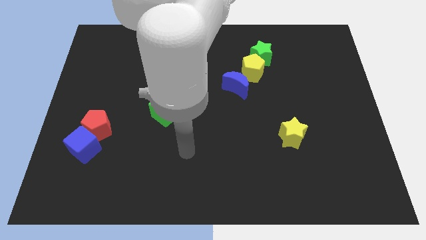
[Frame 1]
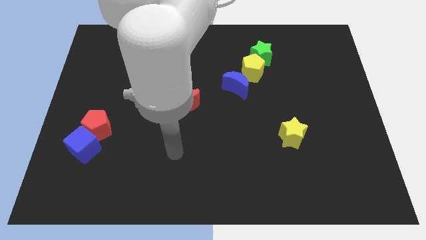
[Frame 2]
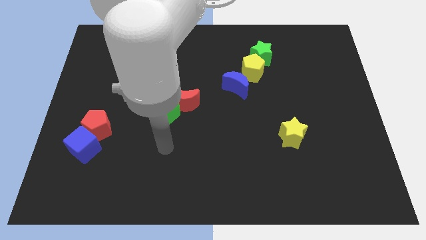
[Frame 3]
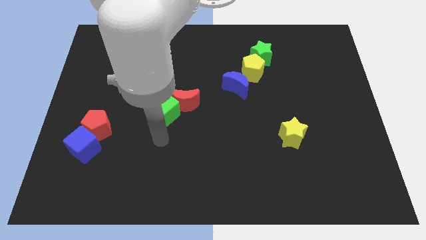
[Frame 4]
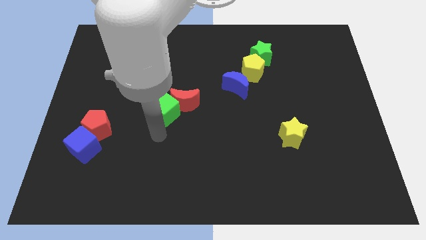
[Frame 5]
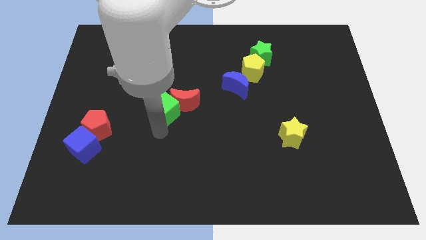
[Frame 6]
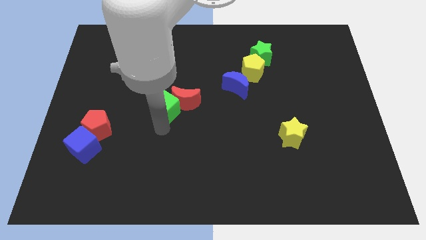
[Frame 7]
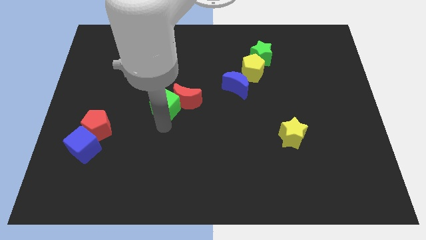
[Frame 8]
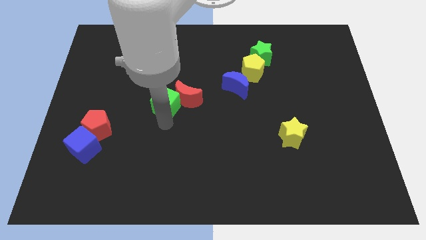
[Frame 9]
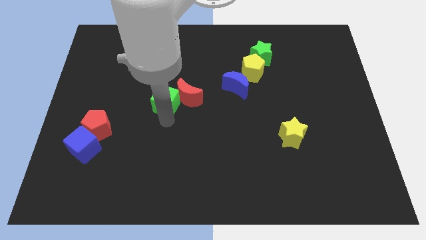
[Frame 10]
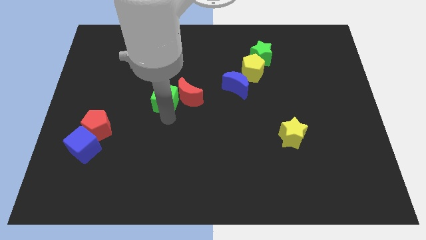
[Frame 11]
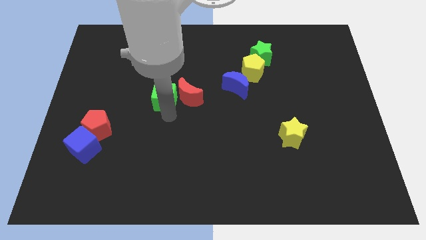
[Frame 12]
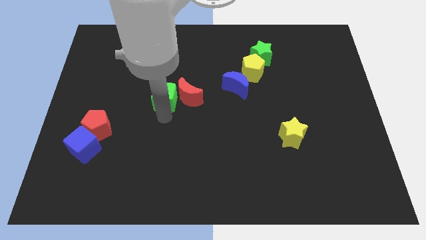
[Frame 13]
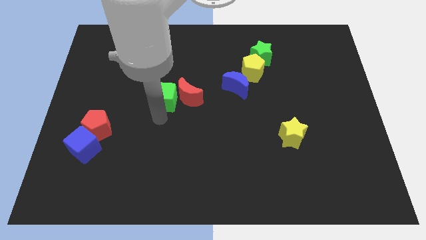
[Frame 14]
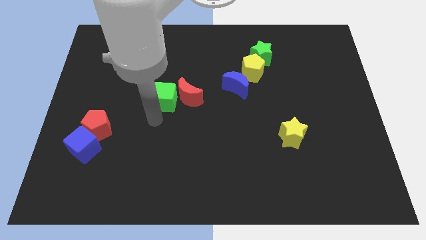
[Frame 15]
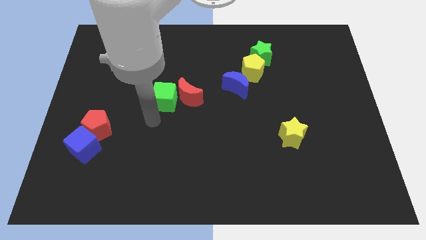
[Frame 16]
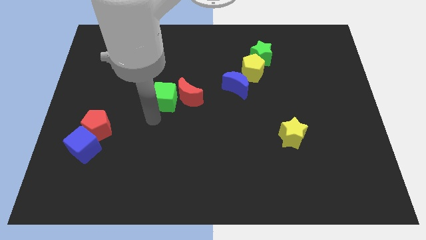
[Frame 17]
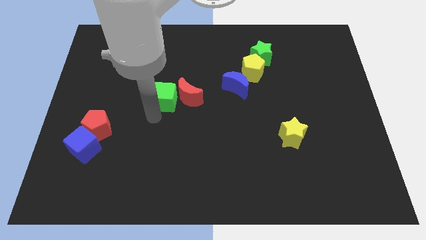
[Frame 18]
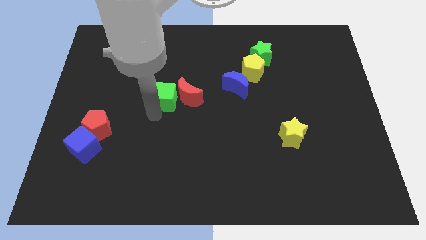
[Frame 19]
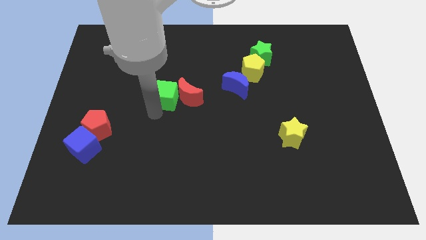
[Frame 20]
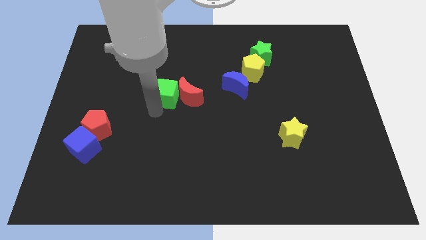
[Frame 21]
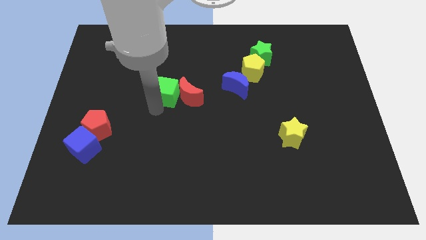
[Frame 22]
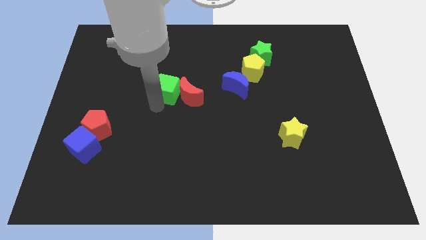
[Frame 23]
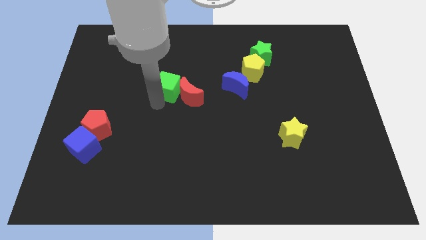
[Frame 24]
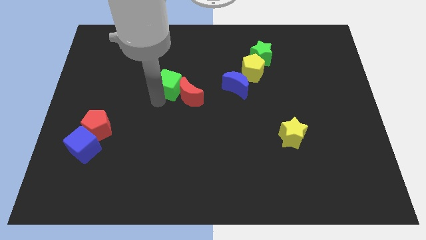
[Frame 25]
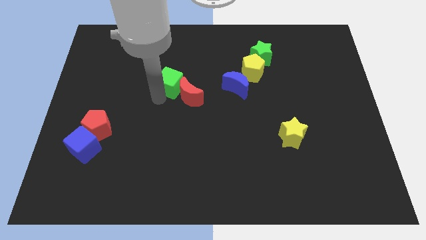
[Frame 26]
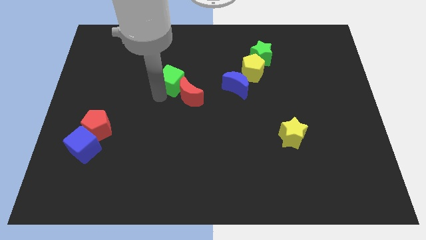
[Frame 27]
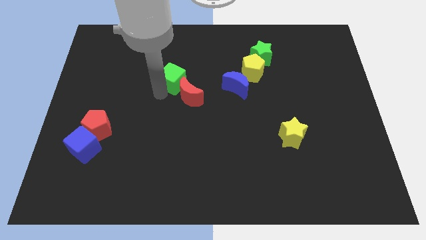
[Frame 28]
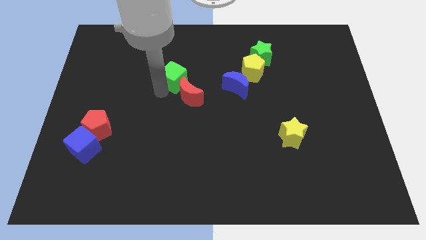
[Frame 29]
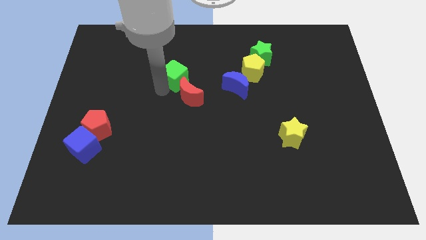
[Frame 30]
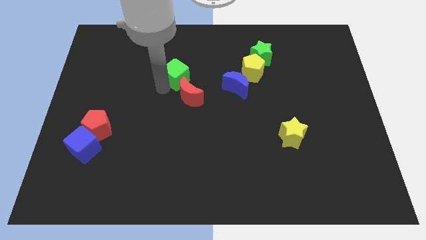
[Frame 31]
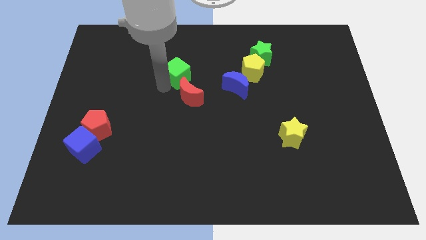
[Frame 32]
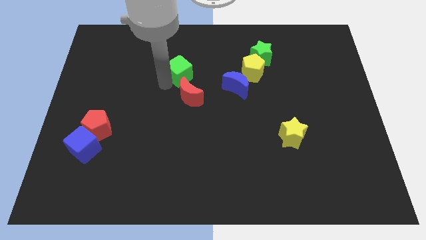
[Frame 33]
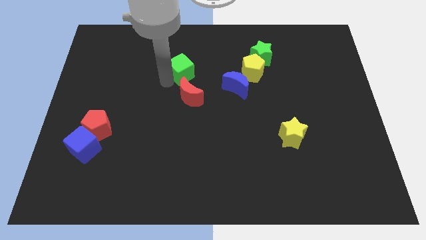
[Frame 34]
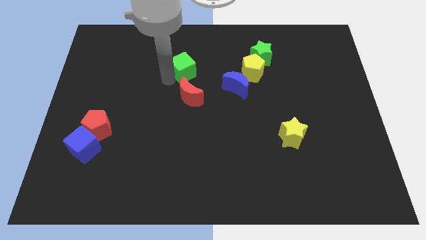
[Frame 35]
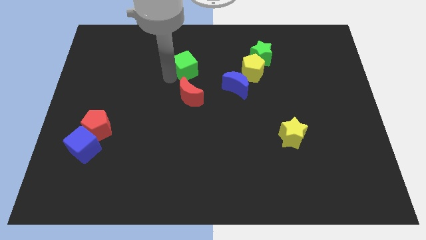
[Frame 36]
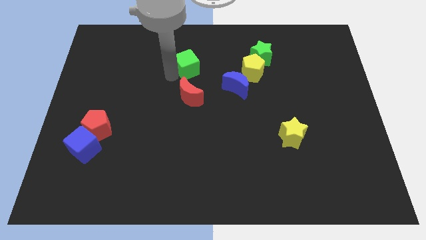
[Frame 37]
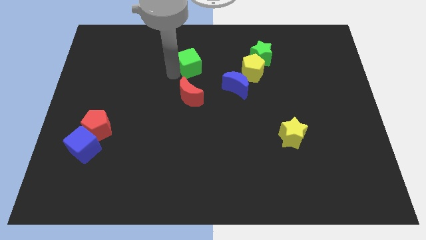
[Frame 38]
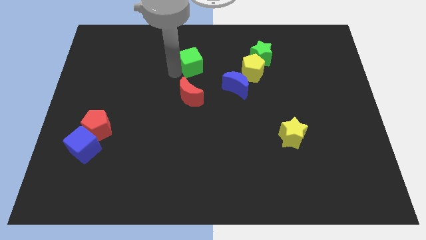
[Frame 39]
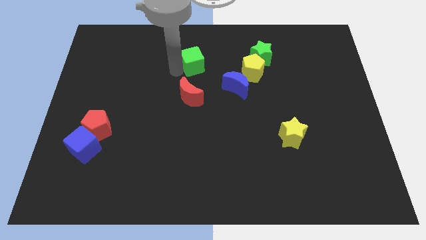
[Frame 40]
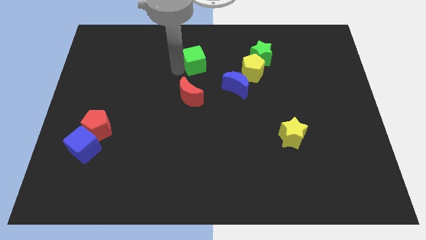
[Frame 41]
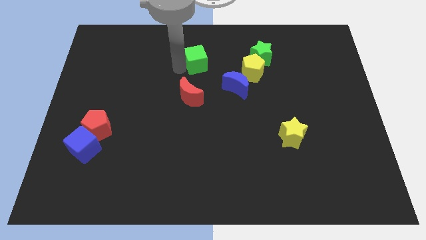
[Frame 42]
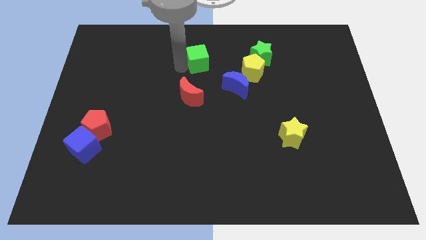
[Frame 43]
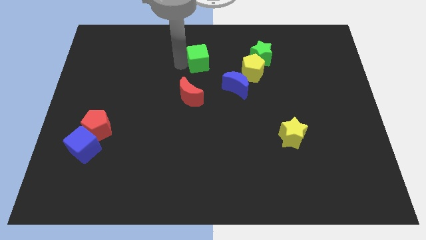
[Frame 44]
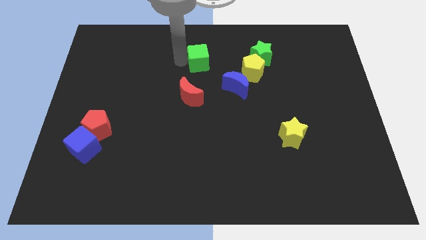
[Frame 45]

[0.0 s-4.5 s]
slide the green cube to the left of the green star

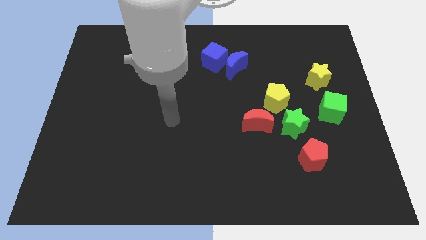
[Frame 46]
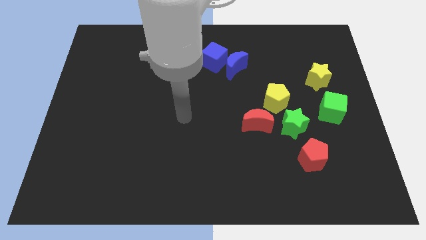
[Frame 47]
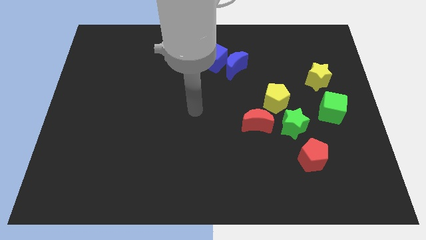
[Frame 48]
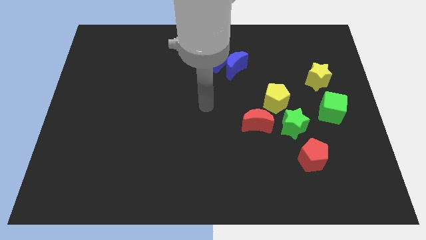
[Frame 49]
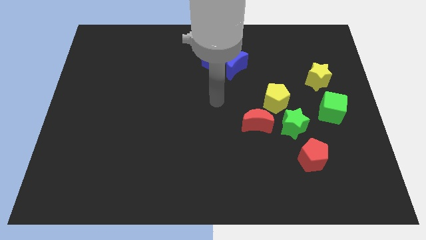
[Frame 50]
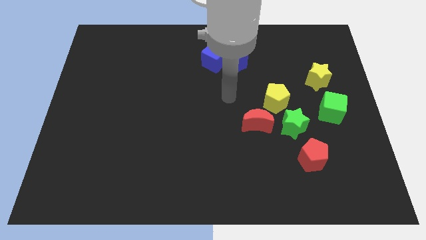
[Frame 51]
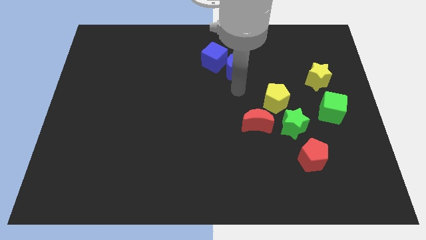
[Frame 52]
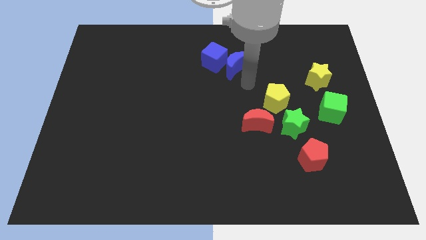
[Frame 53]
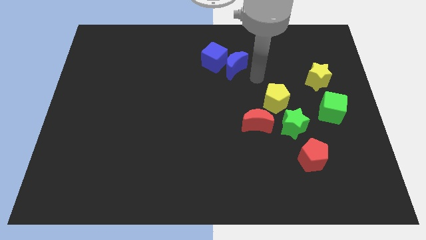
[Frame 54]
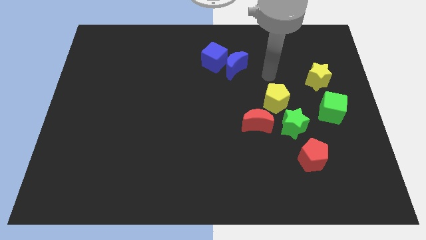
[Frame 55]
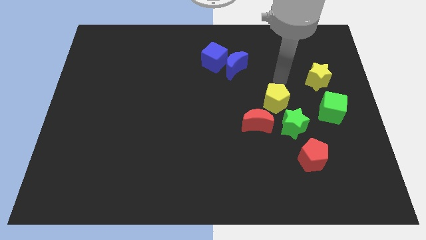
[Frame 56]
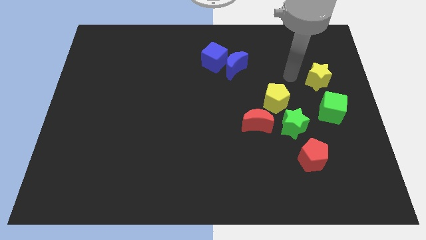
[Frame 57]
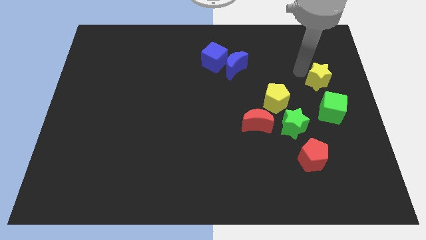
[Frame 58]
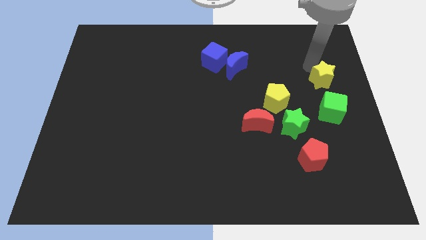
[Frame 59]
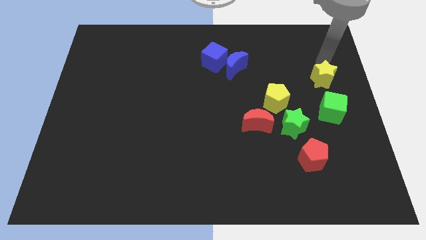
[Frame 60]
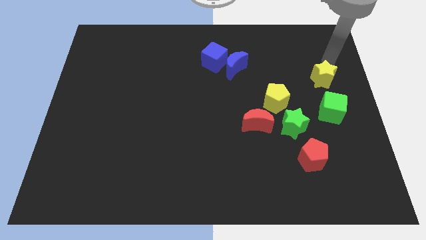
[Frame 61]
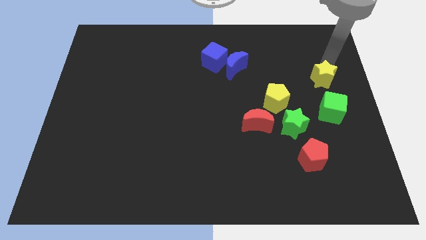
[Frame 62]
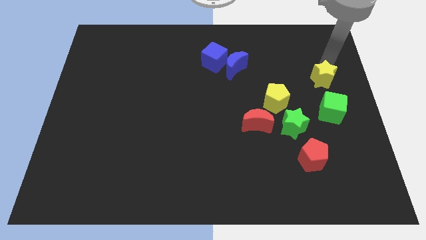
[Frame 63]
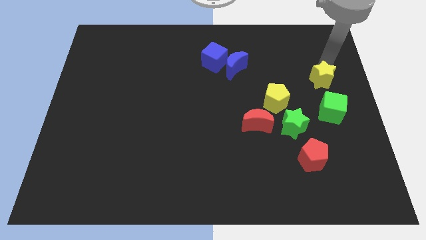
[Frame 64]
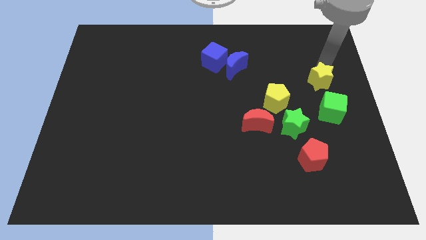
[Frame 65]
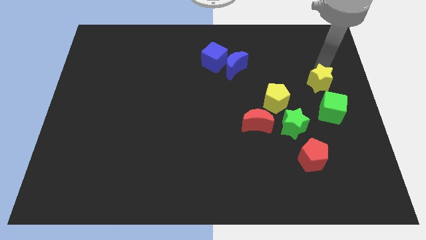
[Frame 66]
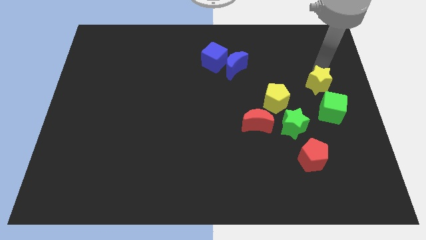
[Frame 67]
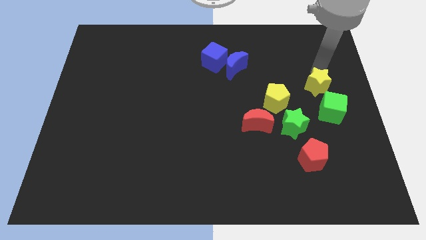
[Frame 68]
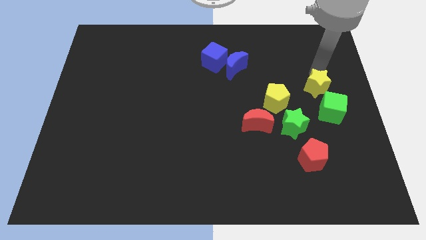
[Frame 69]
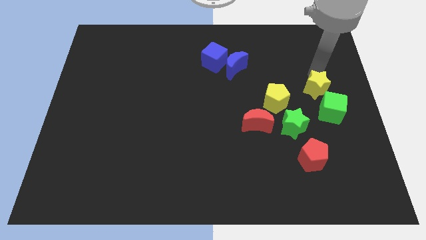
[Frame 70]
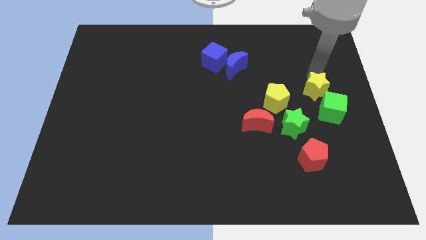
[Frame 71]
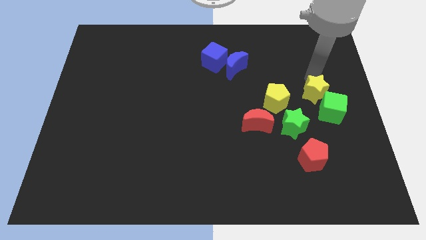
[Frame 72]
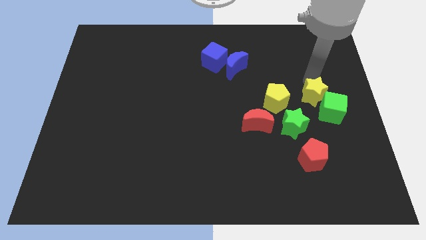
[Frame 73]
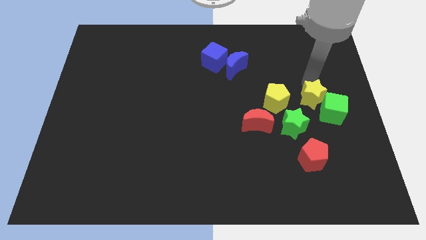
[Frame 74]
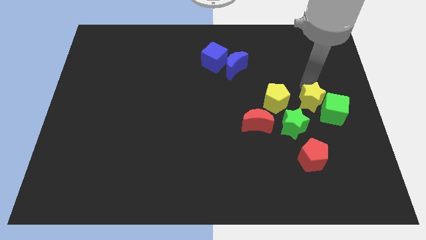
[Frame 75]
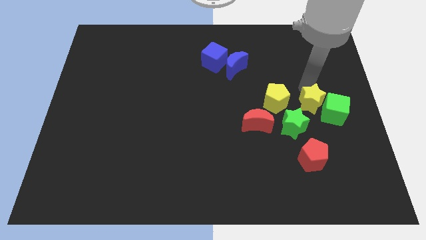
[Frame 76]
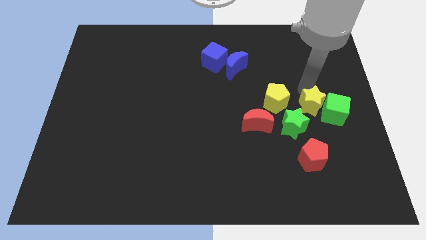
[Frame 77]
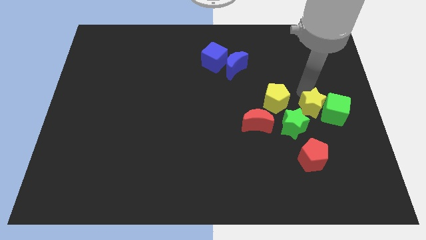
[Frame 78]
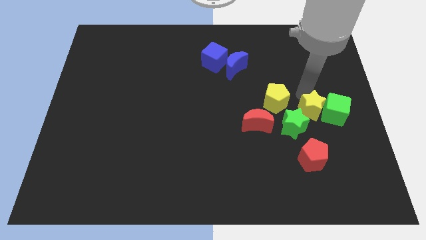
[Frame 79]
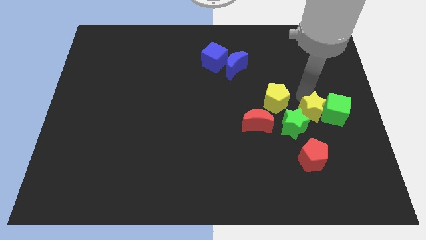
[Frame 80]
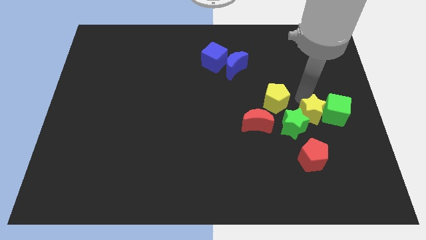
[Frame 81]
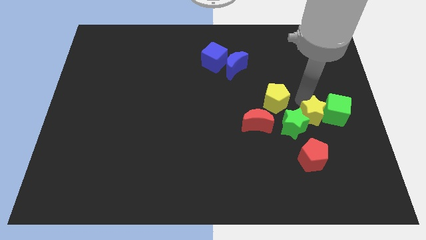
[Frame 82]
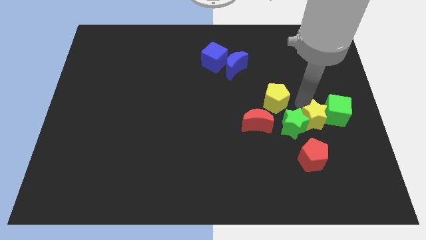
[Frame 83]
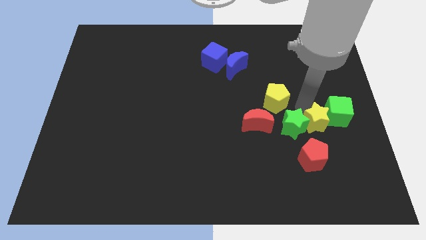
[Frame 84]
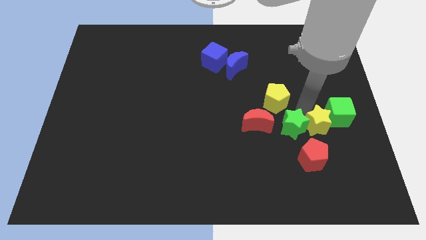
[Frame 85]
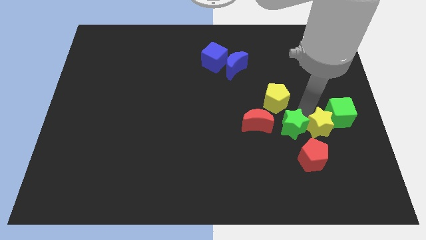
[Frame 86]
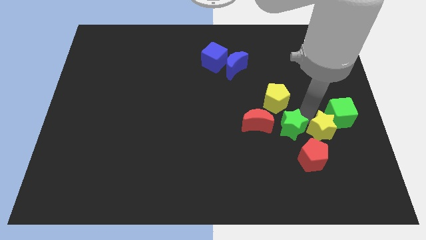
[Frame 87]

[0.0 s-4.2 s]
push the yellow star to the bottom of the green cube
